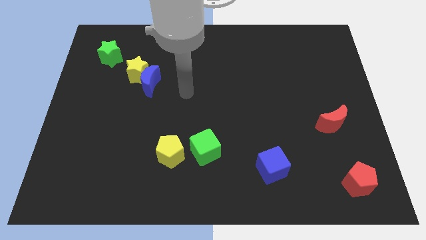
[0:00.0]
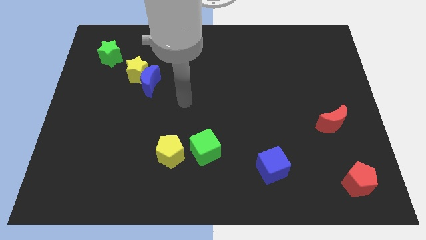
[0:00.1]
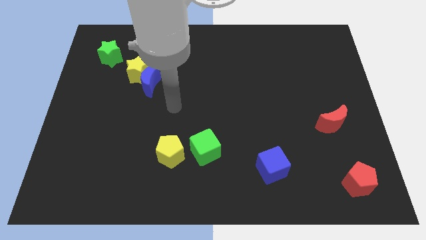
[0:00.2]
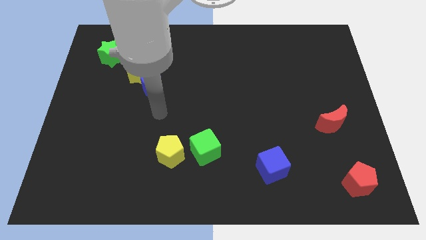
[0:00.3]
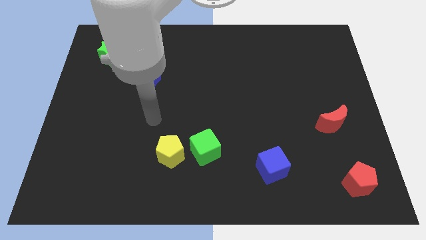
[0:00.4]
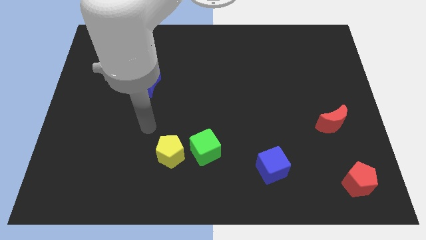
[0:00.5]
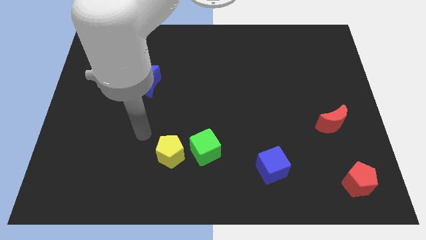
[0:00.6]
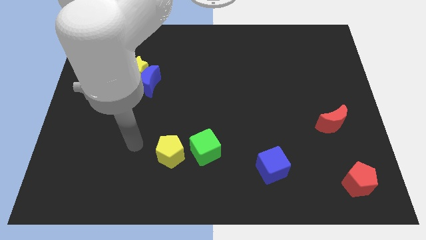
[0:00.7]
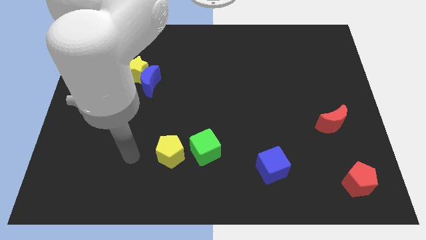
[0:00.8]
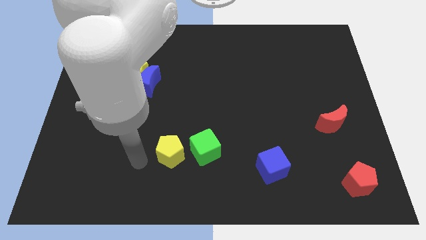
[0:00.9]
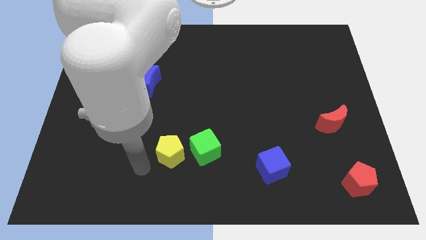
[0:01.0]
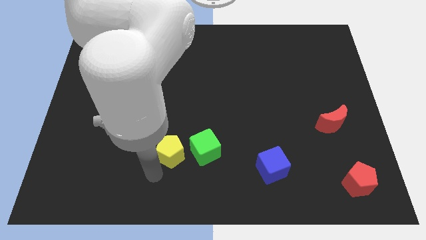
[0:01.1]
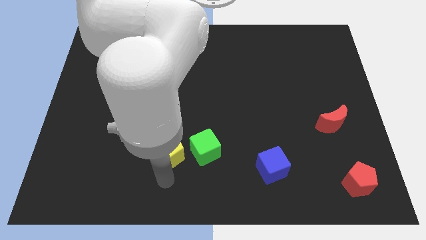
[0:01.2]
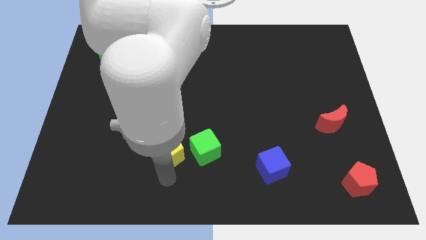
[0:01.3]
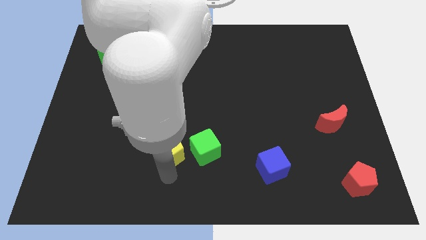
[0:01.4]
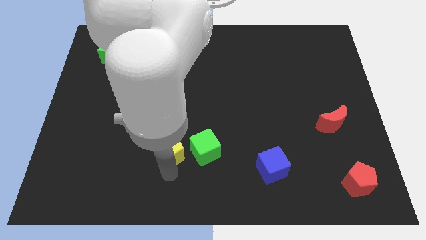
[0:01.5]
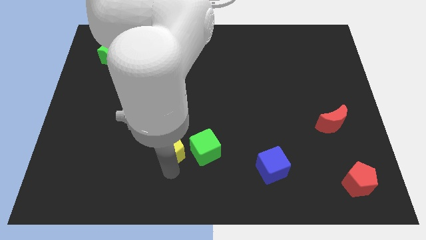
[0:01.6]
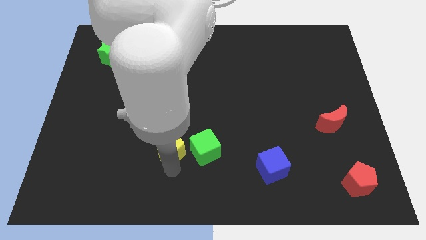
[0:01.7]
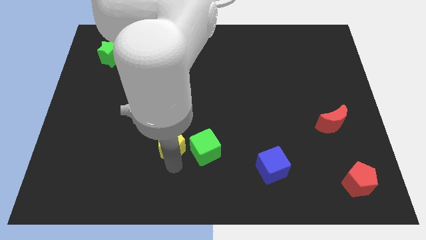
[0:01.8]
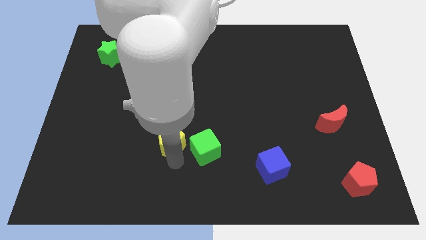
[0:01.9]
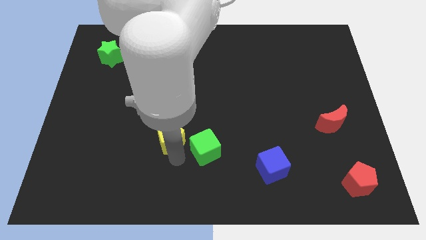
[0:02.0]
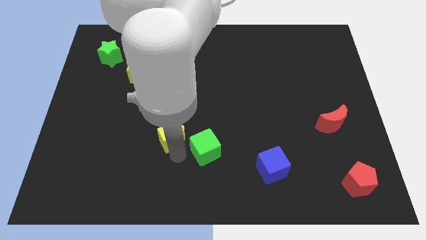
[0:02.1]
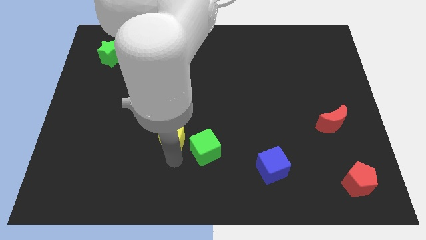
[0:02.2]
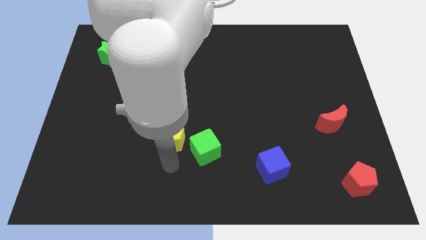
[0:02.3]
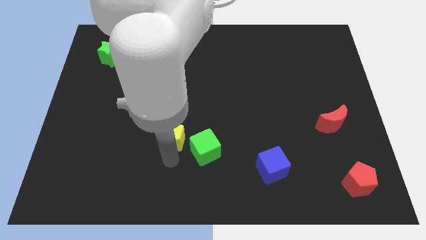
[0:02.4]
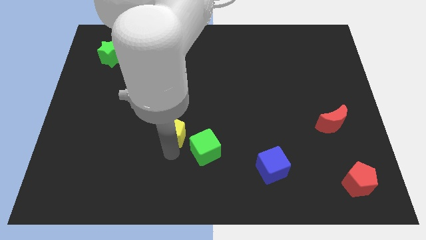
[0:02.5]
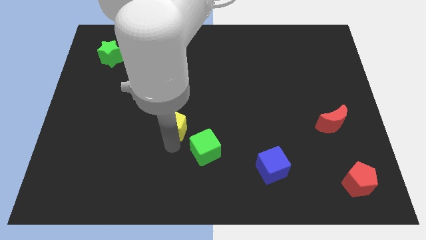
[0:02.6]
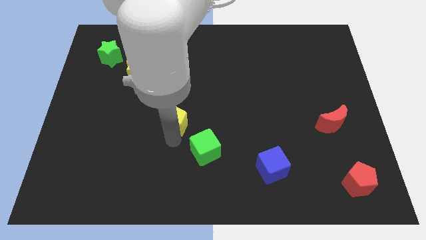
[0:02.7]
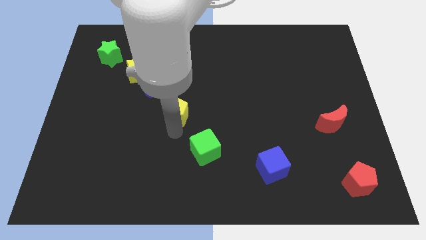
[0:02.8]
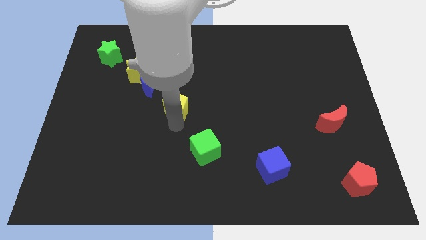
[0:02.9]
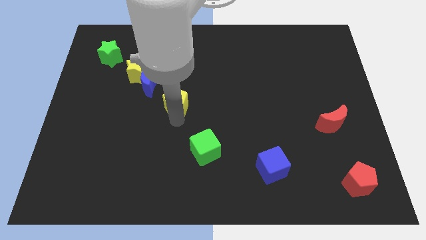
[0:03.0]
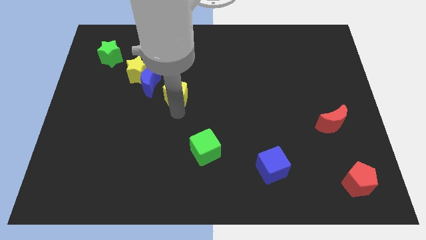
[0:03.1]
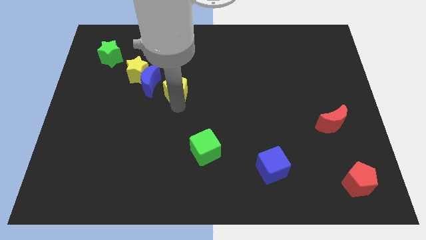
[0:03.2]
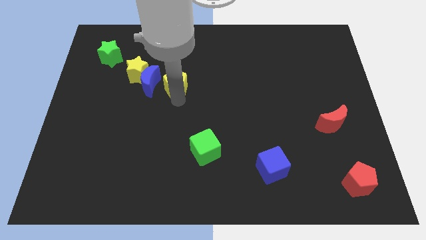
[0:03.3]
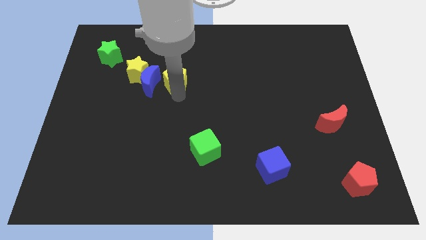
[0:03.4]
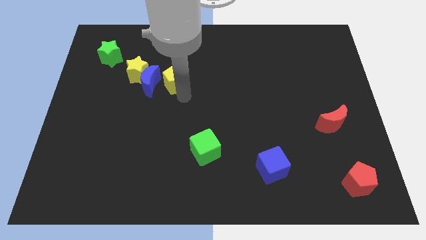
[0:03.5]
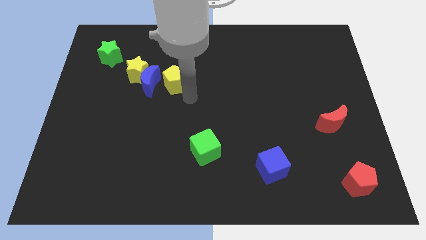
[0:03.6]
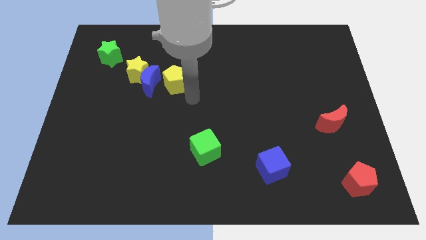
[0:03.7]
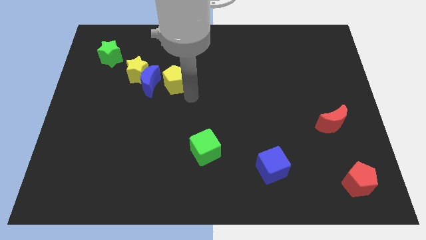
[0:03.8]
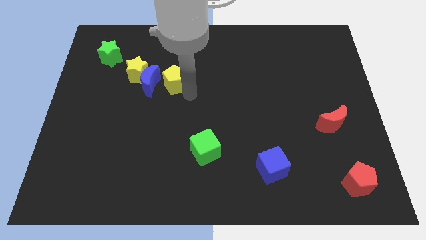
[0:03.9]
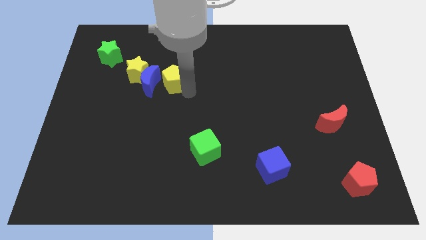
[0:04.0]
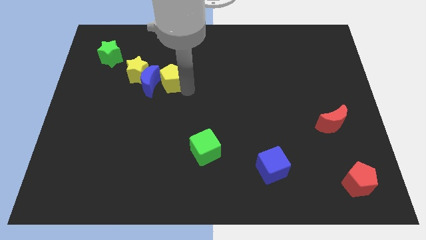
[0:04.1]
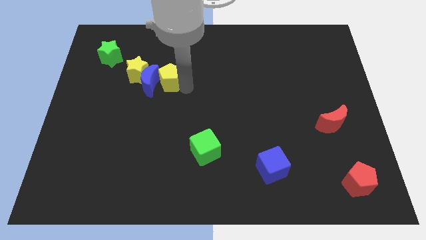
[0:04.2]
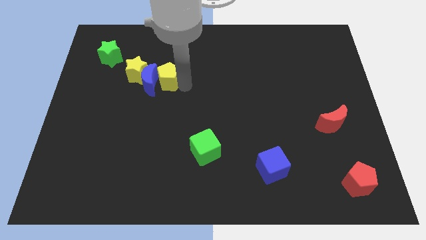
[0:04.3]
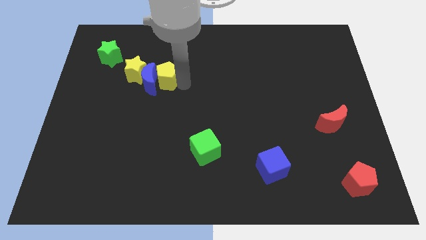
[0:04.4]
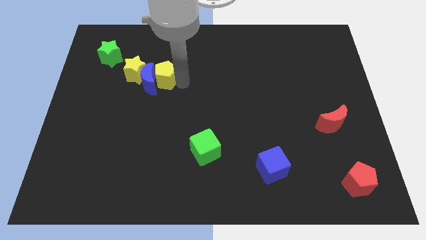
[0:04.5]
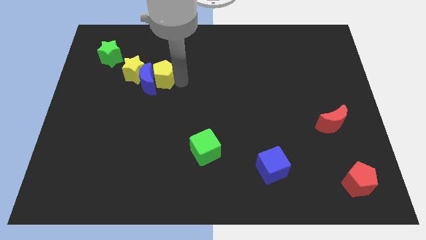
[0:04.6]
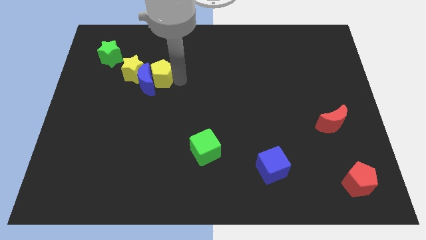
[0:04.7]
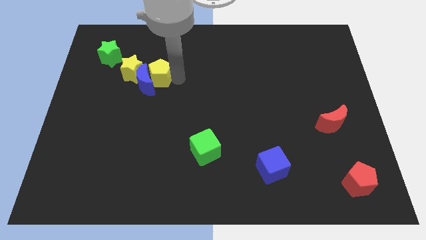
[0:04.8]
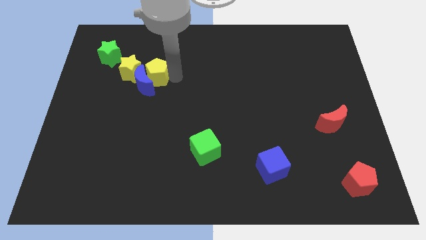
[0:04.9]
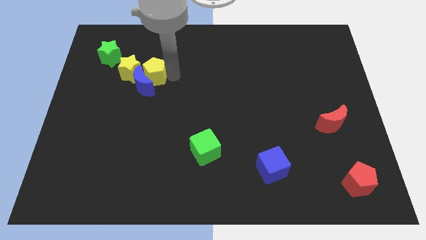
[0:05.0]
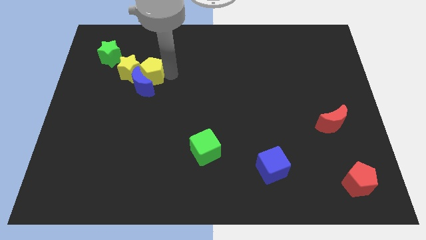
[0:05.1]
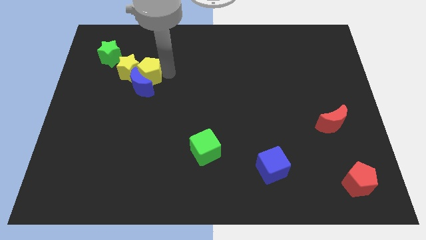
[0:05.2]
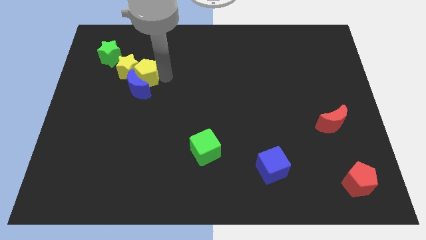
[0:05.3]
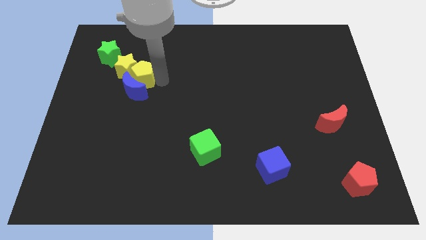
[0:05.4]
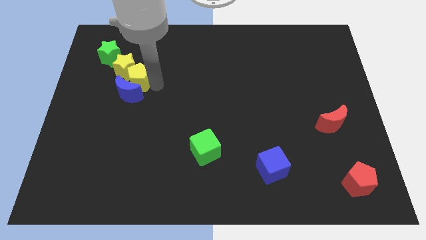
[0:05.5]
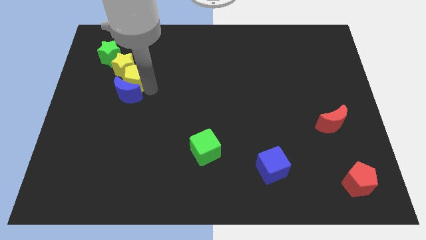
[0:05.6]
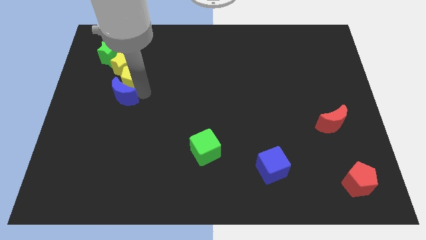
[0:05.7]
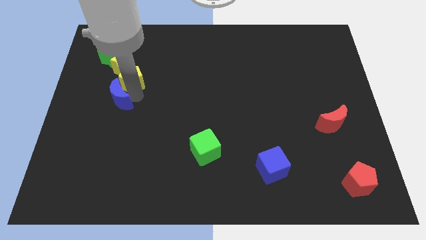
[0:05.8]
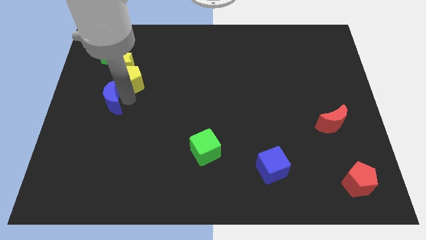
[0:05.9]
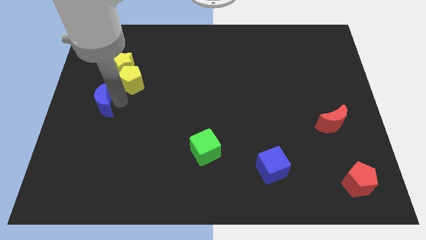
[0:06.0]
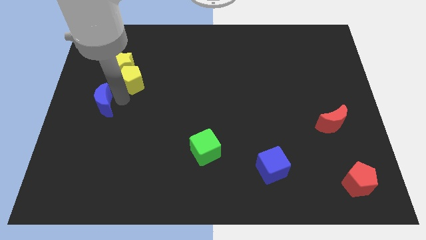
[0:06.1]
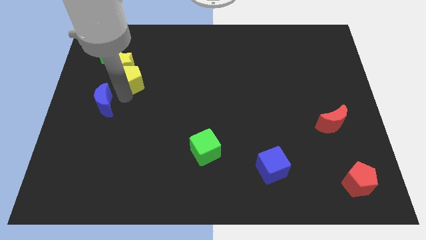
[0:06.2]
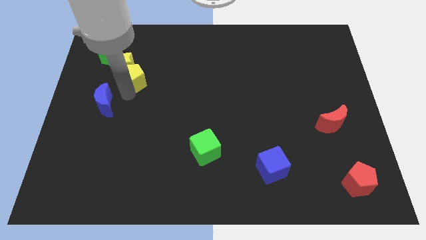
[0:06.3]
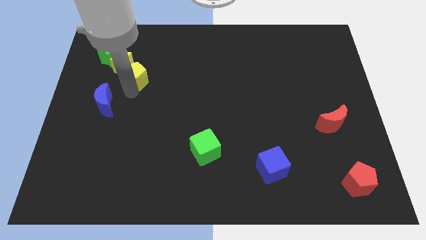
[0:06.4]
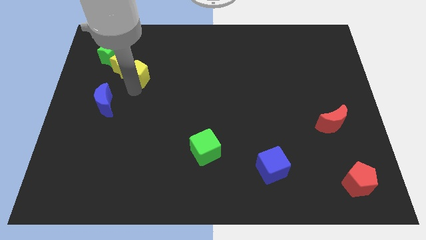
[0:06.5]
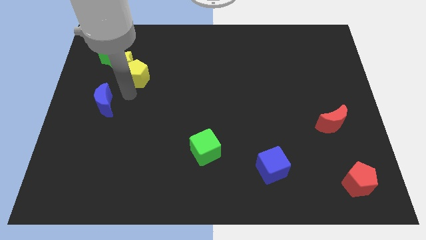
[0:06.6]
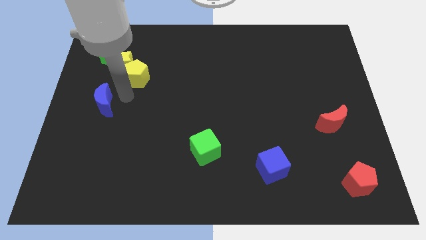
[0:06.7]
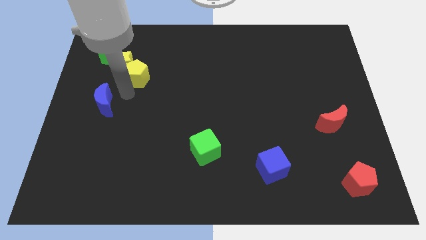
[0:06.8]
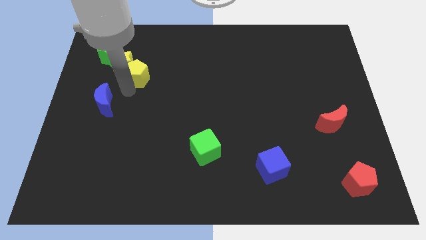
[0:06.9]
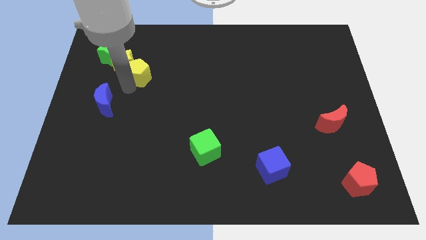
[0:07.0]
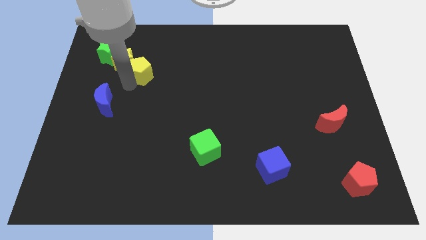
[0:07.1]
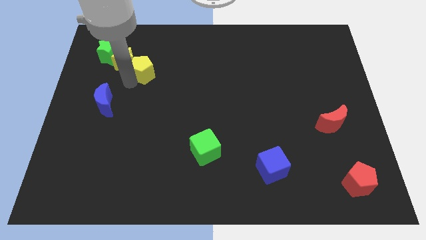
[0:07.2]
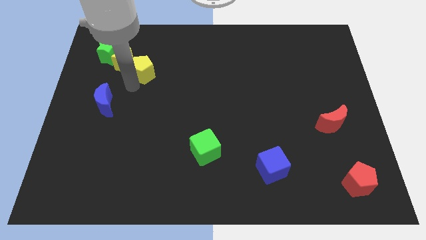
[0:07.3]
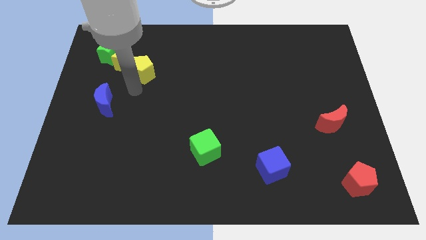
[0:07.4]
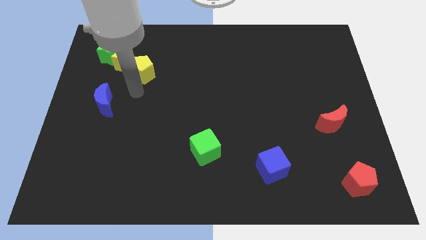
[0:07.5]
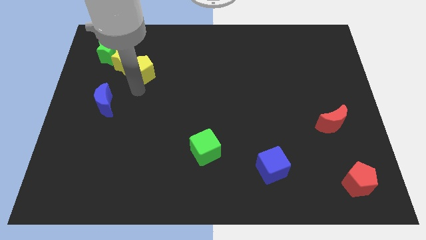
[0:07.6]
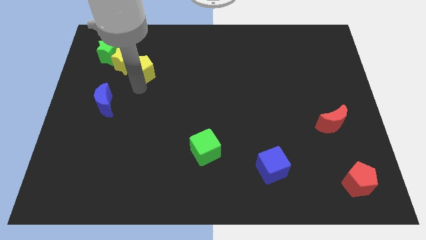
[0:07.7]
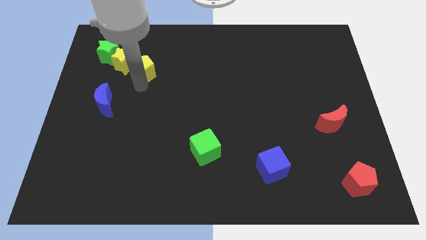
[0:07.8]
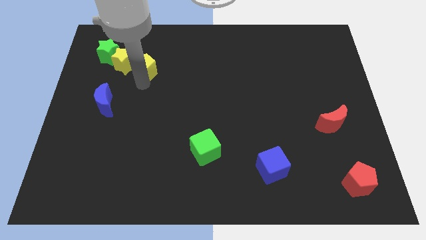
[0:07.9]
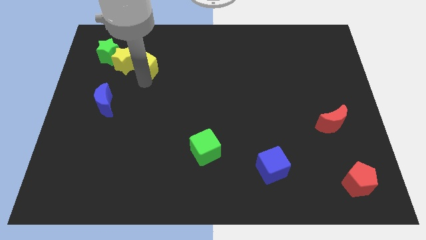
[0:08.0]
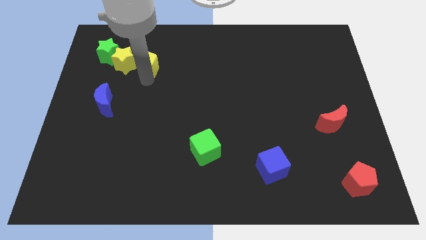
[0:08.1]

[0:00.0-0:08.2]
move the yellow pentagon to the right of the green star
